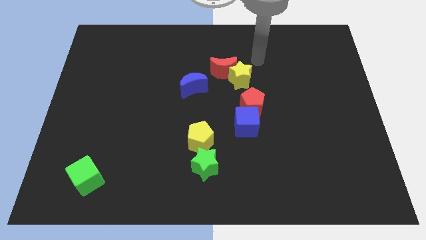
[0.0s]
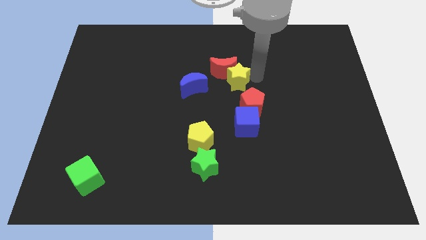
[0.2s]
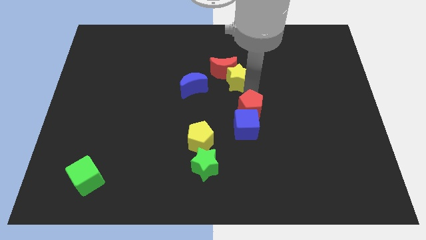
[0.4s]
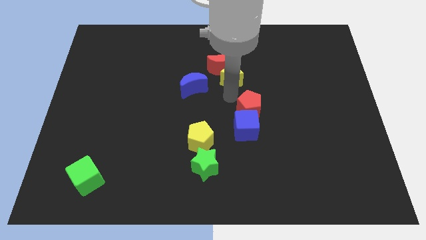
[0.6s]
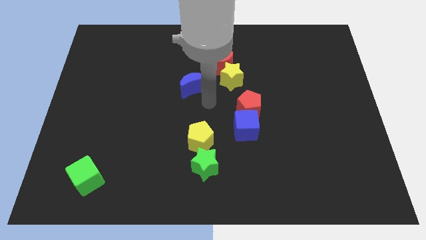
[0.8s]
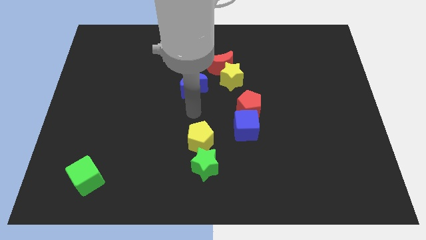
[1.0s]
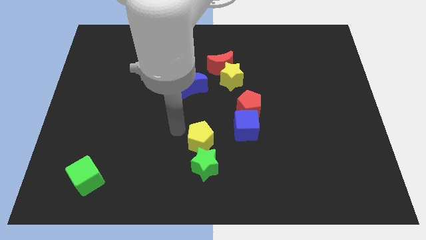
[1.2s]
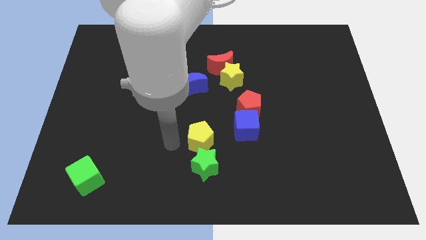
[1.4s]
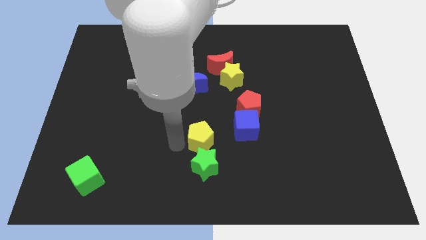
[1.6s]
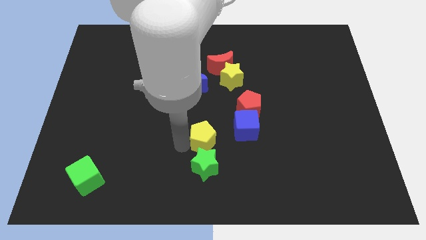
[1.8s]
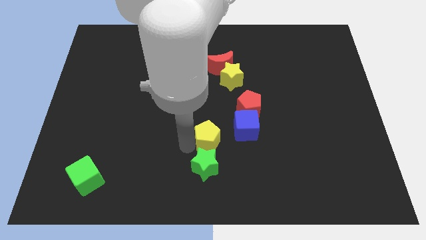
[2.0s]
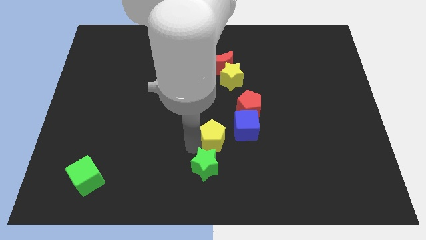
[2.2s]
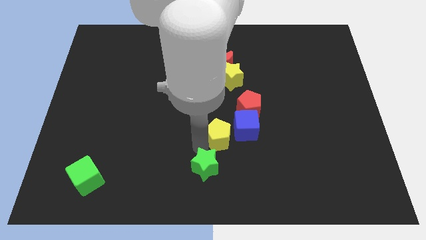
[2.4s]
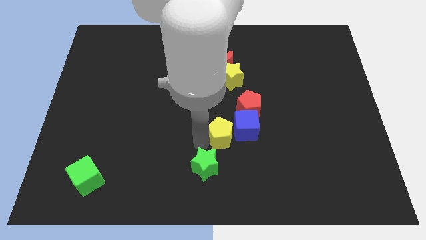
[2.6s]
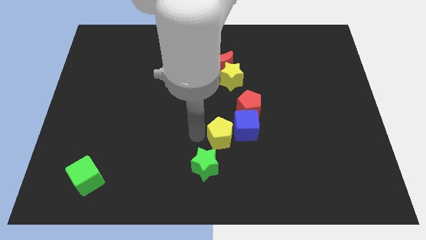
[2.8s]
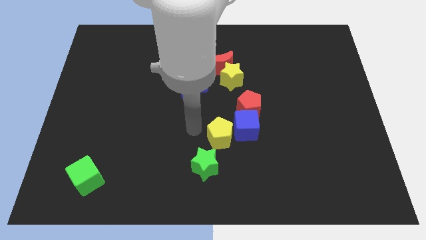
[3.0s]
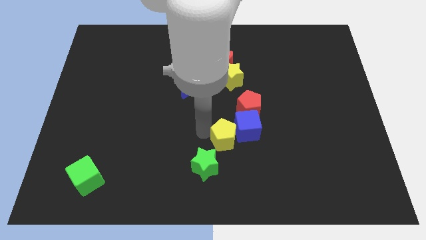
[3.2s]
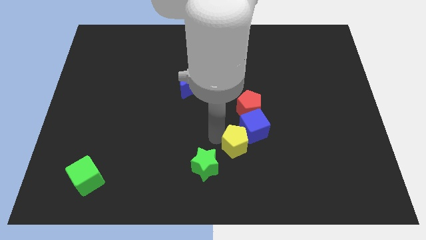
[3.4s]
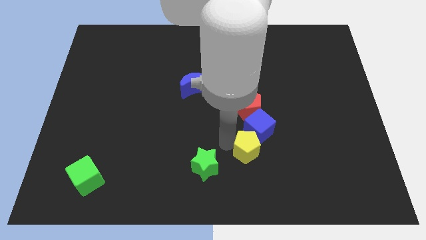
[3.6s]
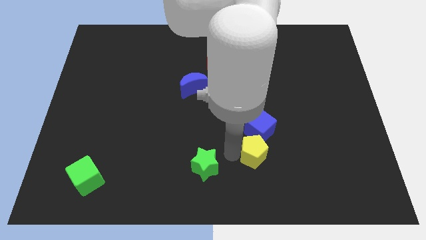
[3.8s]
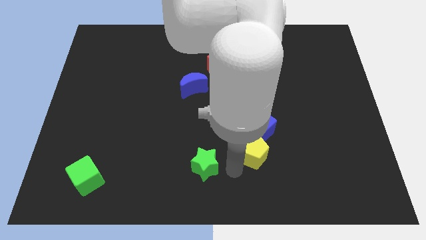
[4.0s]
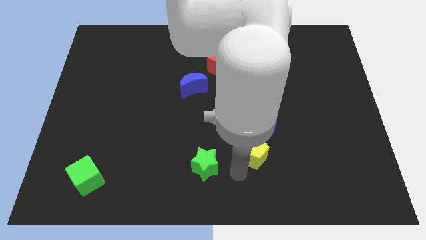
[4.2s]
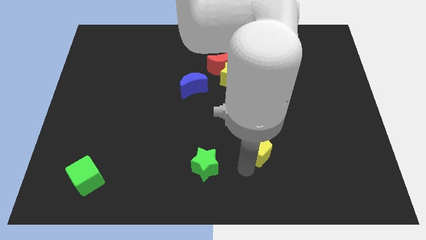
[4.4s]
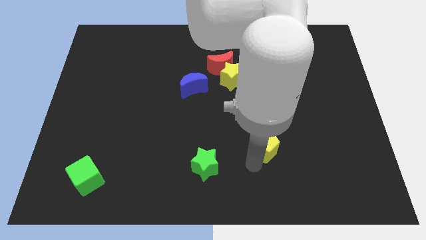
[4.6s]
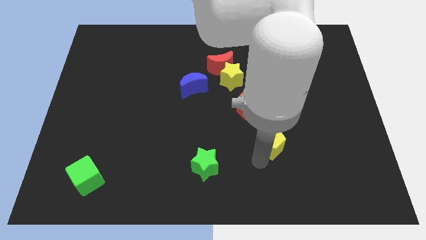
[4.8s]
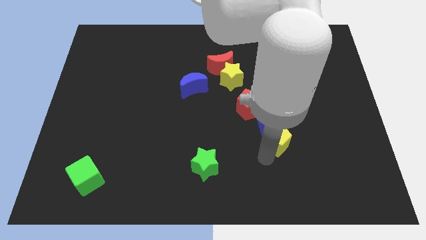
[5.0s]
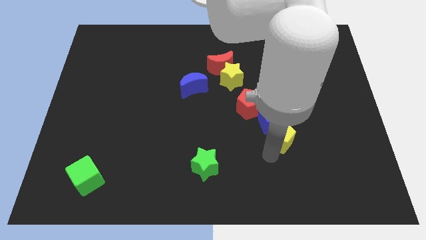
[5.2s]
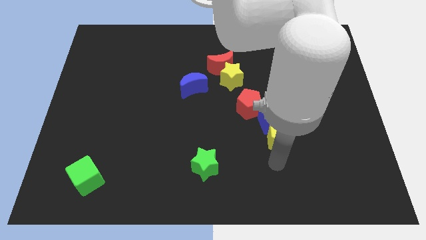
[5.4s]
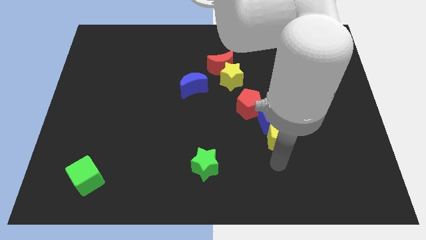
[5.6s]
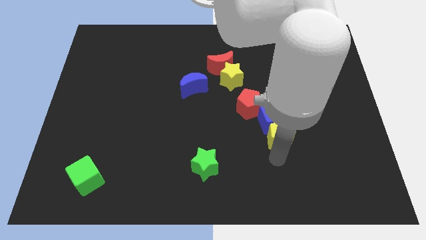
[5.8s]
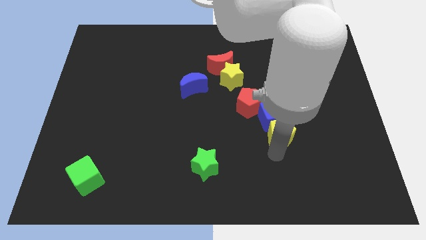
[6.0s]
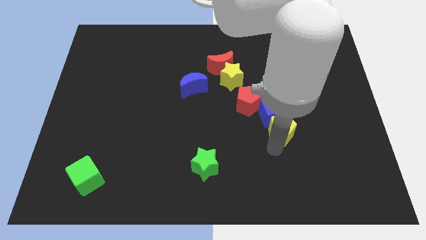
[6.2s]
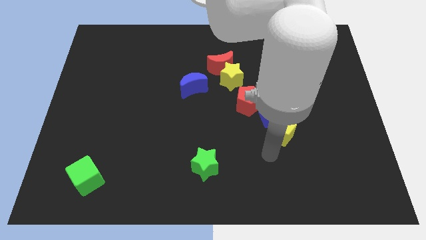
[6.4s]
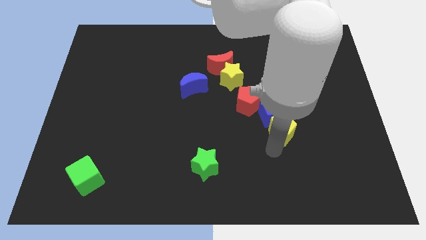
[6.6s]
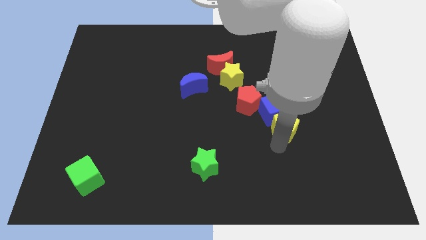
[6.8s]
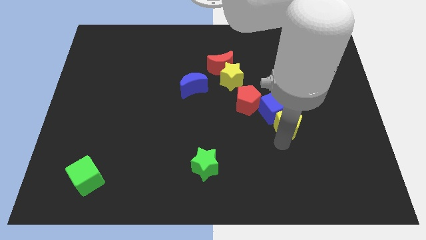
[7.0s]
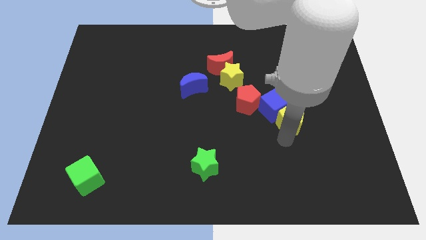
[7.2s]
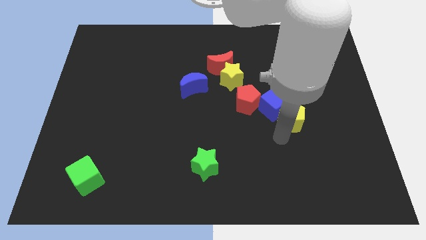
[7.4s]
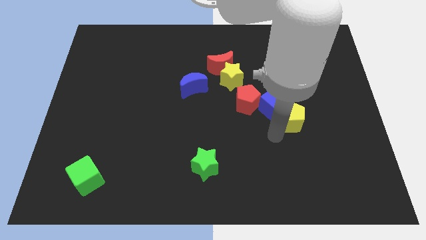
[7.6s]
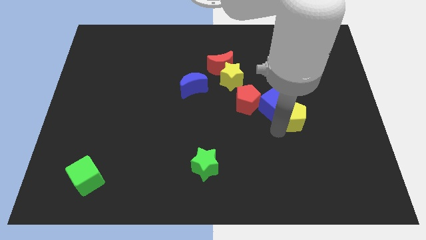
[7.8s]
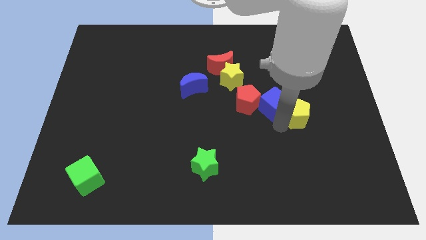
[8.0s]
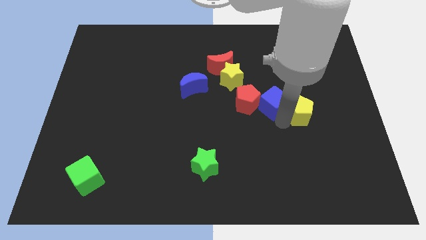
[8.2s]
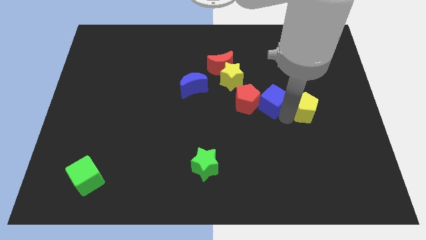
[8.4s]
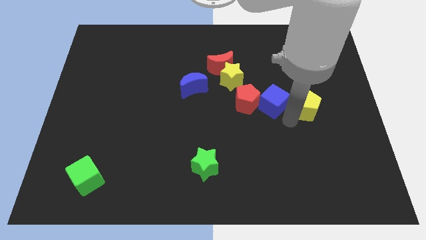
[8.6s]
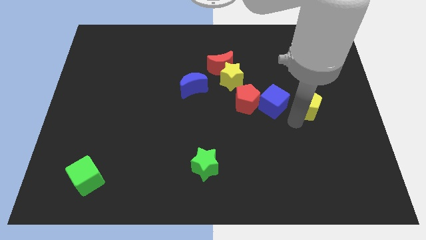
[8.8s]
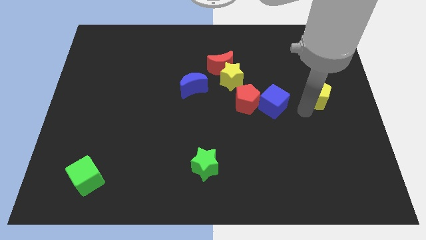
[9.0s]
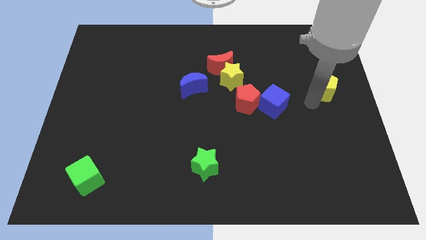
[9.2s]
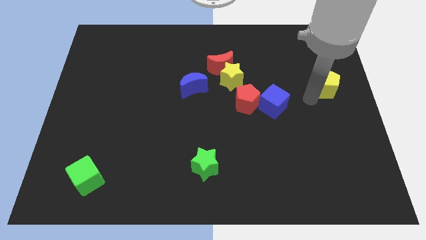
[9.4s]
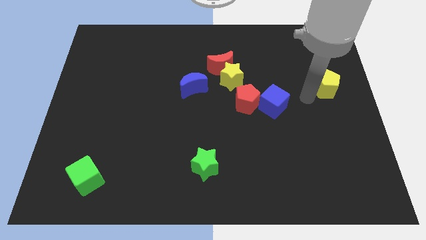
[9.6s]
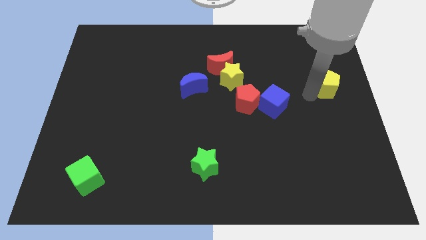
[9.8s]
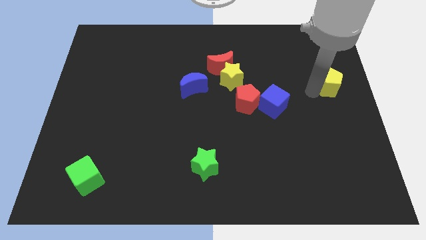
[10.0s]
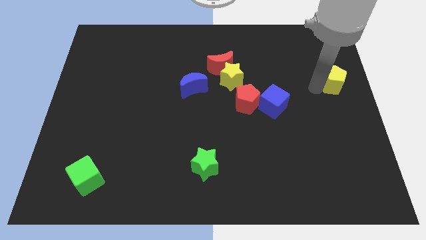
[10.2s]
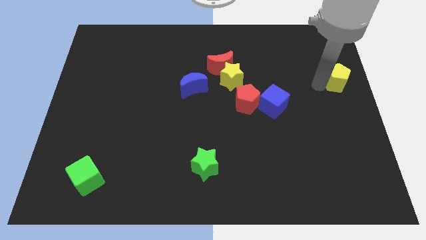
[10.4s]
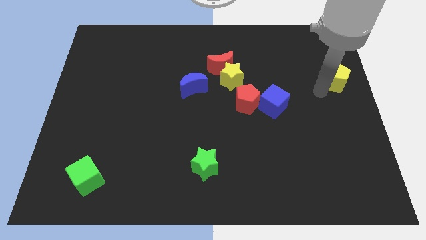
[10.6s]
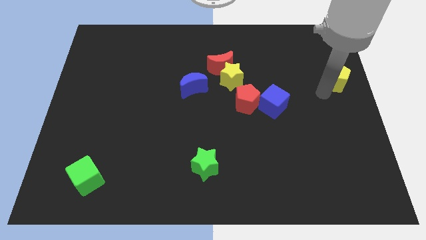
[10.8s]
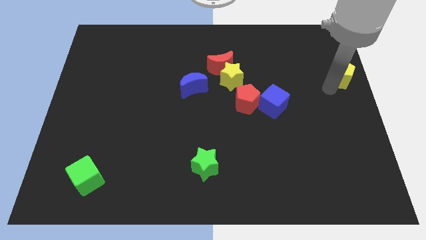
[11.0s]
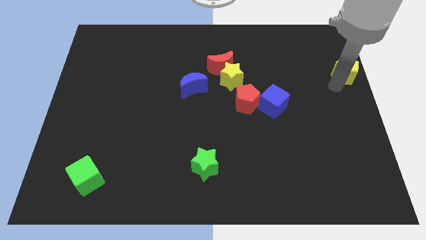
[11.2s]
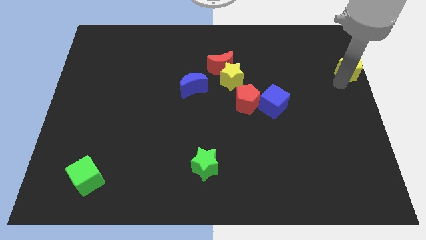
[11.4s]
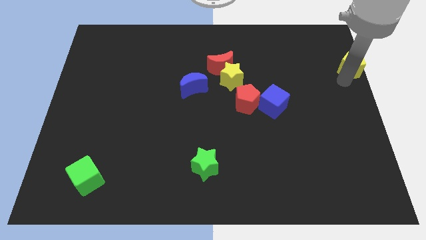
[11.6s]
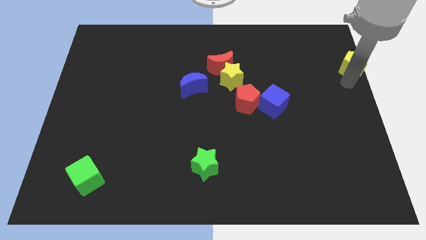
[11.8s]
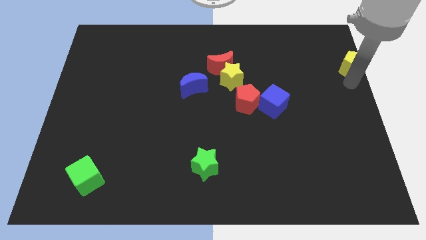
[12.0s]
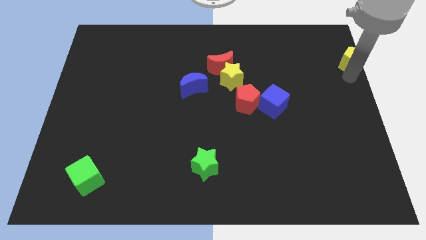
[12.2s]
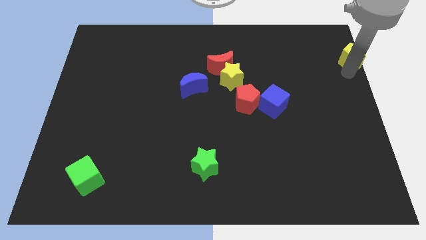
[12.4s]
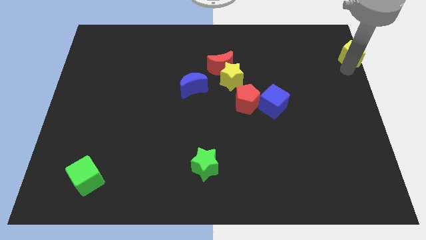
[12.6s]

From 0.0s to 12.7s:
move the yellow pentagon to the upper right corner
